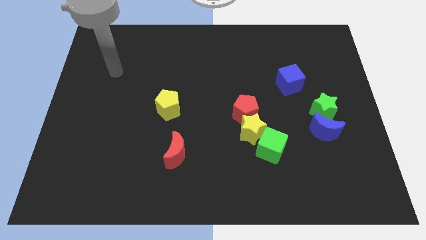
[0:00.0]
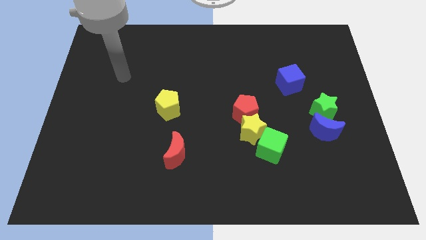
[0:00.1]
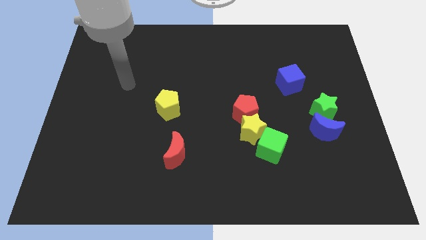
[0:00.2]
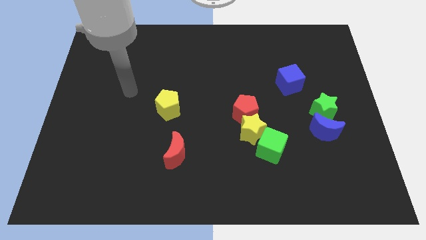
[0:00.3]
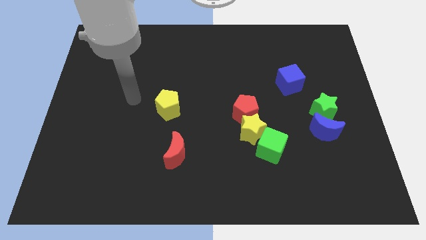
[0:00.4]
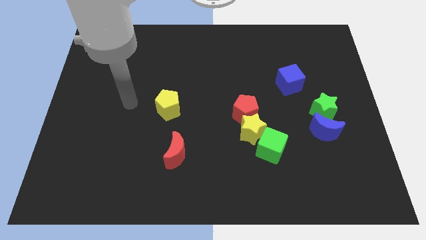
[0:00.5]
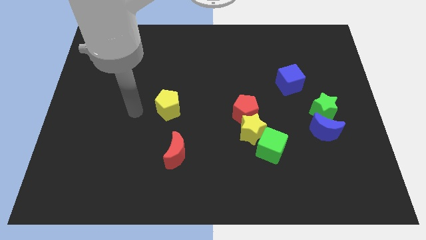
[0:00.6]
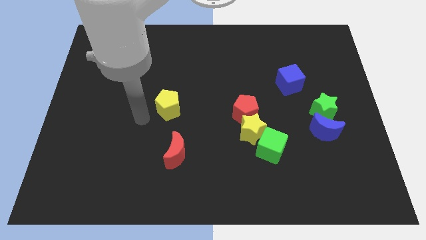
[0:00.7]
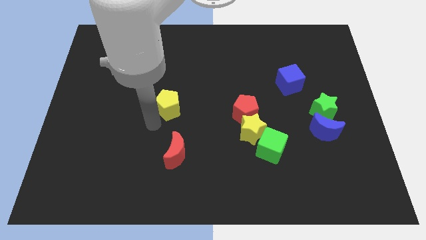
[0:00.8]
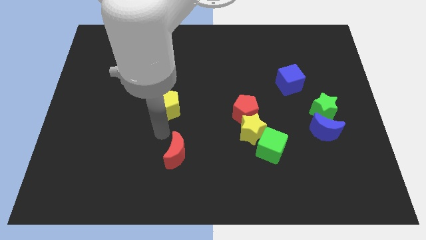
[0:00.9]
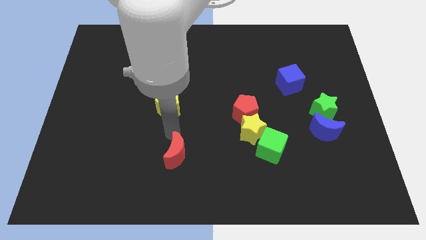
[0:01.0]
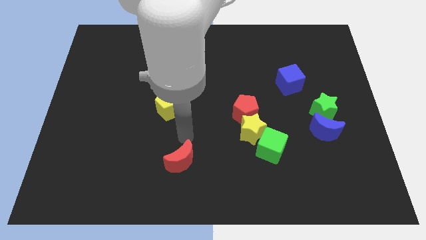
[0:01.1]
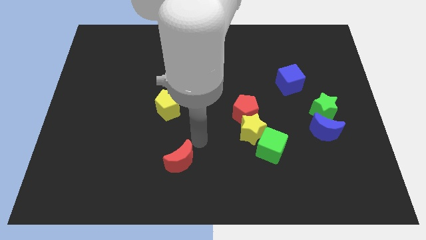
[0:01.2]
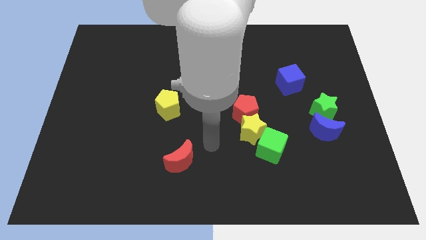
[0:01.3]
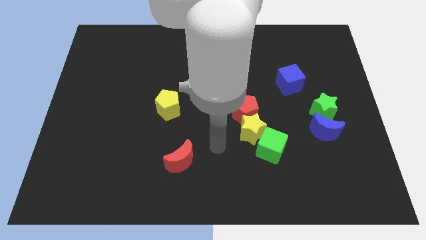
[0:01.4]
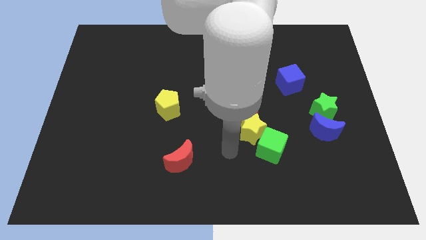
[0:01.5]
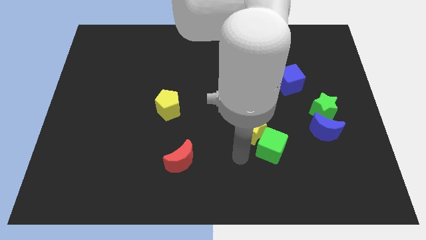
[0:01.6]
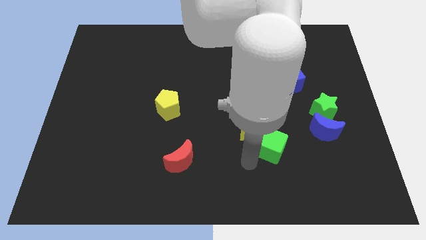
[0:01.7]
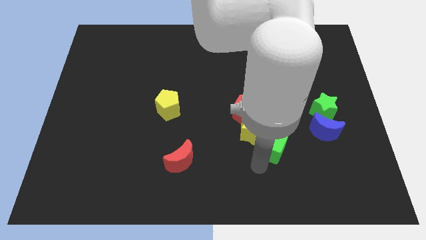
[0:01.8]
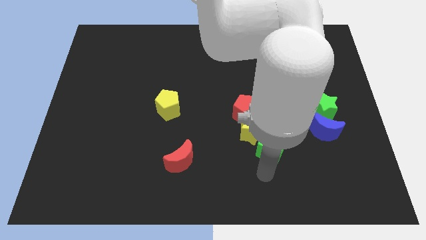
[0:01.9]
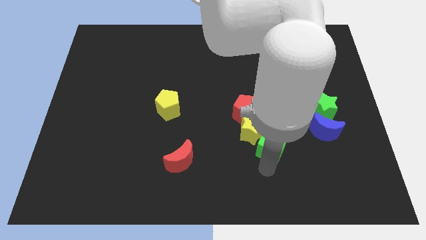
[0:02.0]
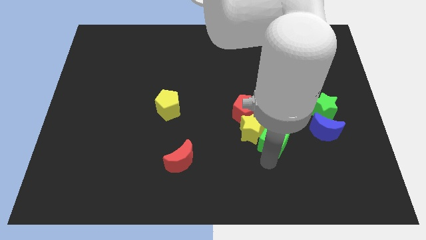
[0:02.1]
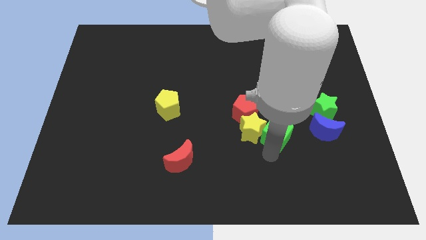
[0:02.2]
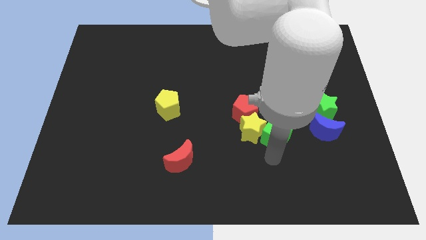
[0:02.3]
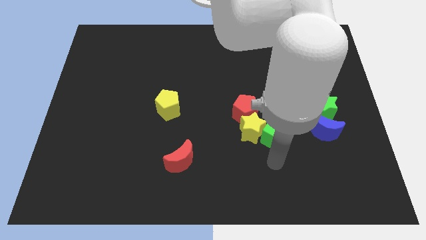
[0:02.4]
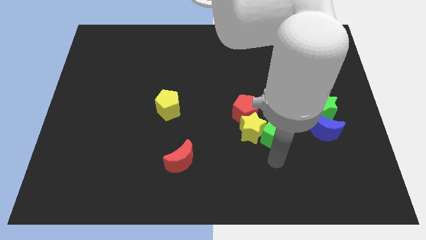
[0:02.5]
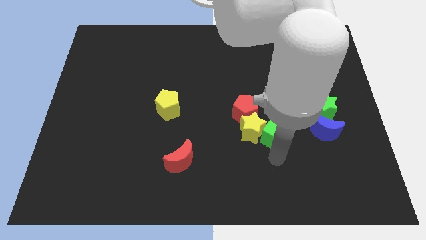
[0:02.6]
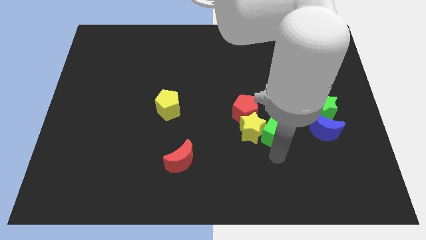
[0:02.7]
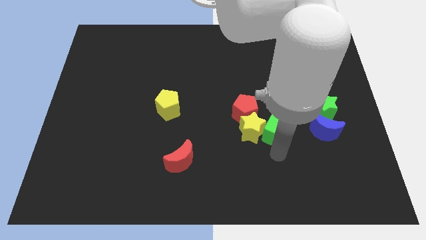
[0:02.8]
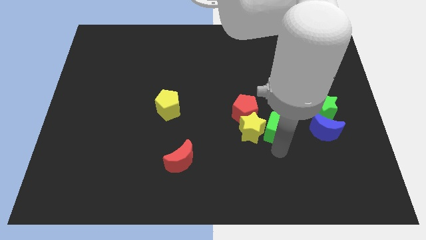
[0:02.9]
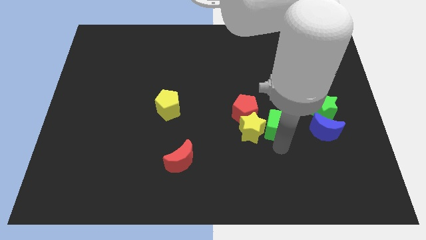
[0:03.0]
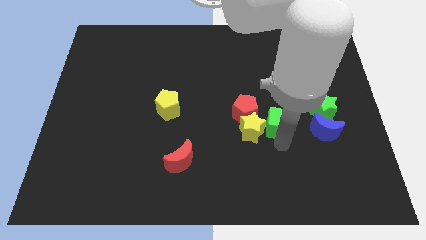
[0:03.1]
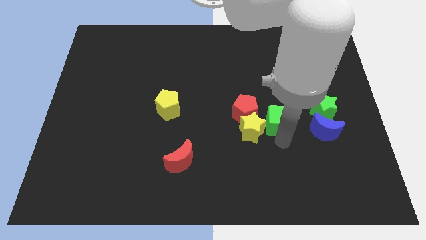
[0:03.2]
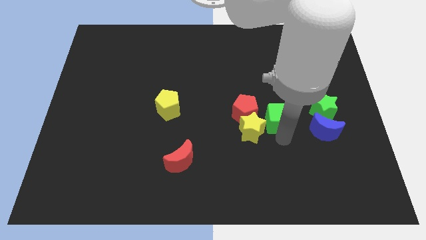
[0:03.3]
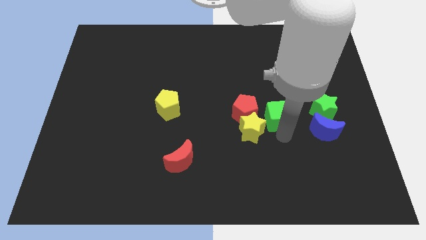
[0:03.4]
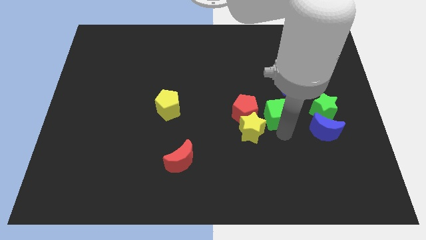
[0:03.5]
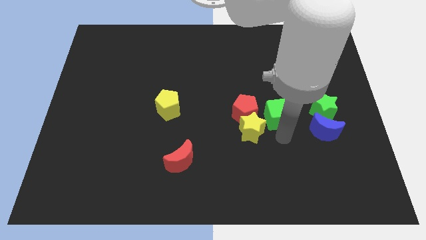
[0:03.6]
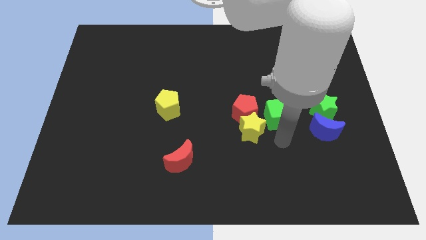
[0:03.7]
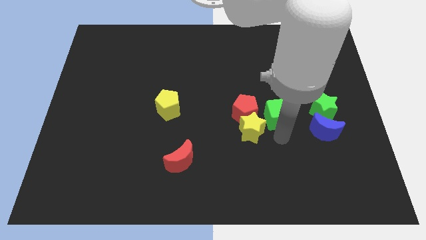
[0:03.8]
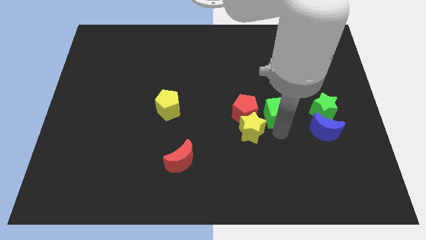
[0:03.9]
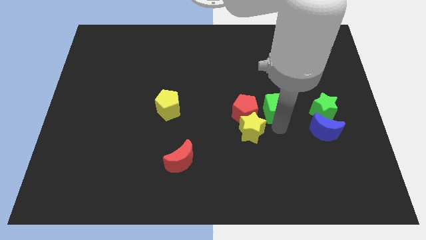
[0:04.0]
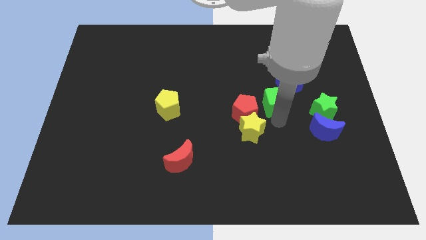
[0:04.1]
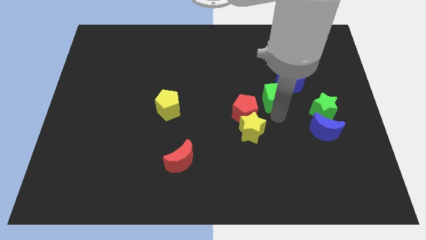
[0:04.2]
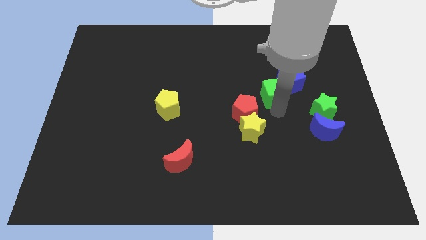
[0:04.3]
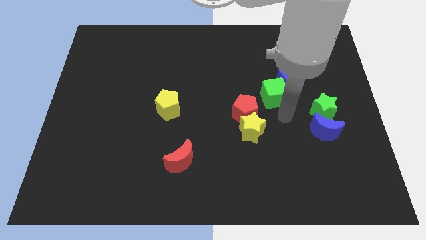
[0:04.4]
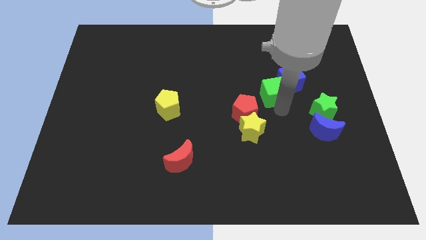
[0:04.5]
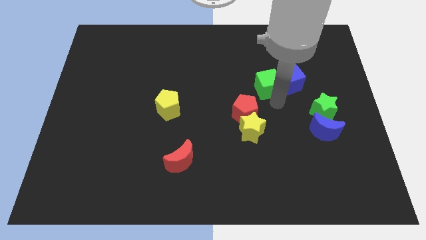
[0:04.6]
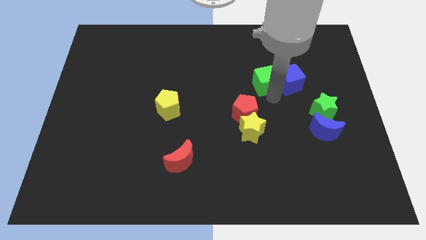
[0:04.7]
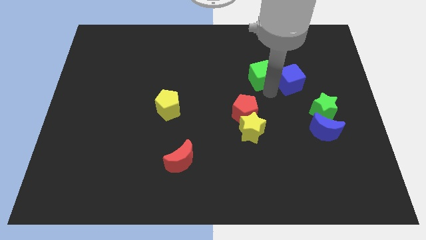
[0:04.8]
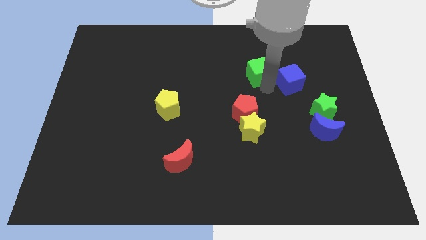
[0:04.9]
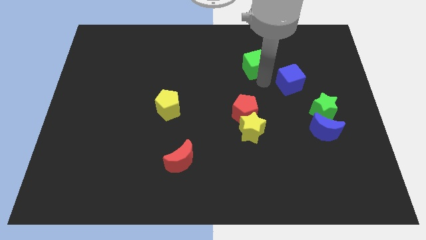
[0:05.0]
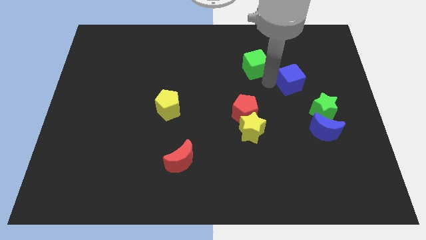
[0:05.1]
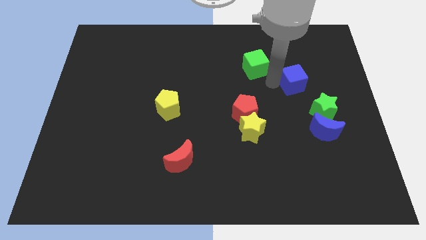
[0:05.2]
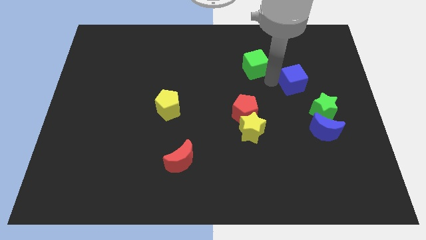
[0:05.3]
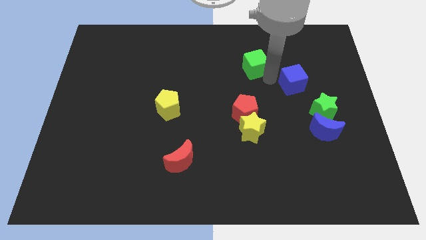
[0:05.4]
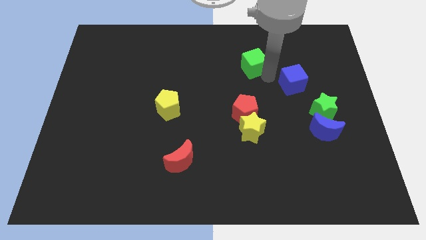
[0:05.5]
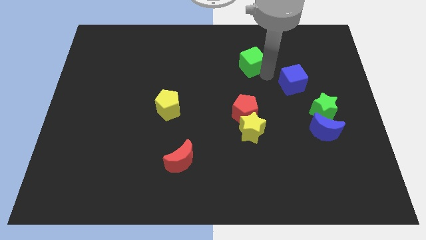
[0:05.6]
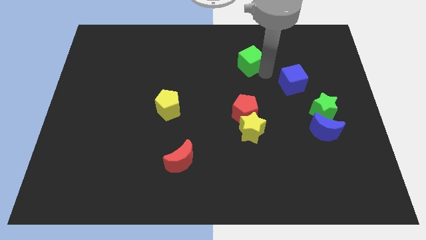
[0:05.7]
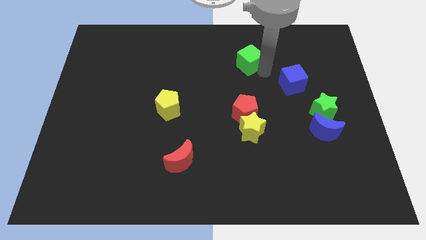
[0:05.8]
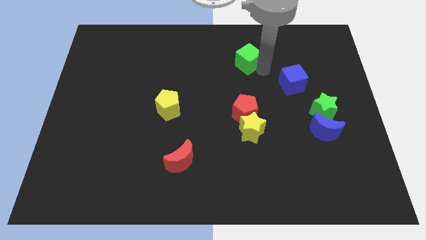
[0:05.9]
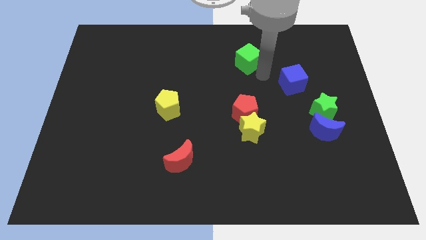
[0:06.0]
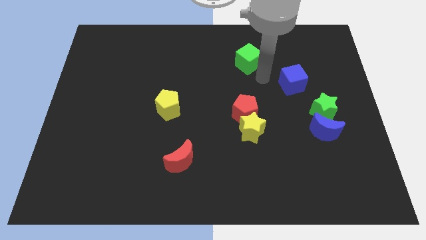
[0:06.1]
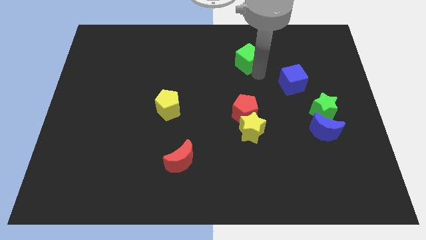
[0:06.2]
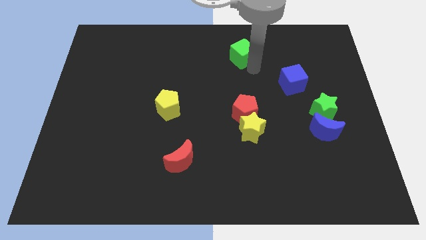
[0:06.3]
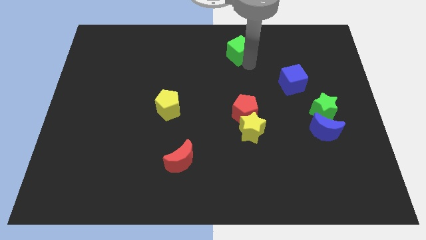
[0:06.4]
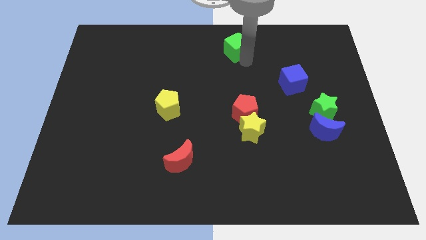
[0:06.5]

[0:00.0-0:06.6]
move the green cube to the towards your base
